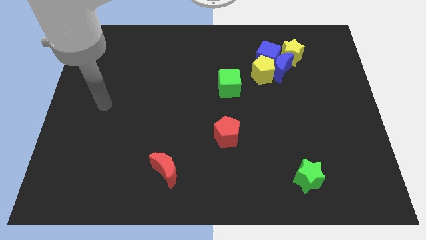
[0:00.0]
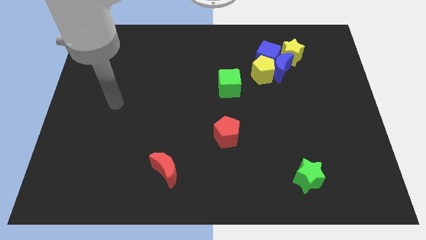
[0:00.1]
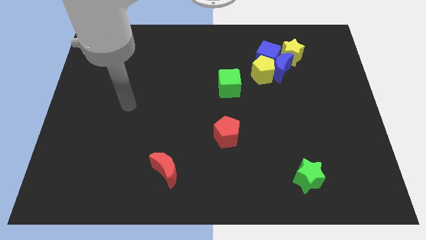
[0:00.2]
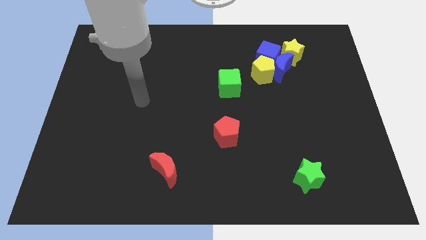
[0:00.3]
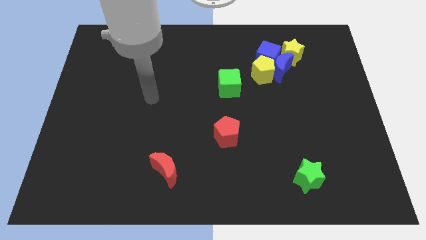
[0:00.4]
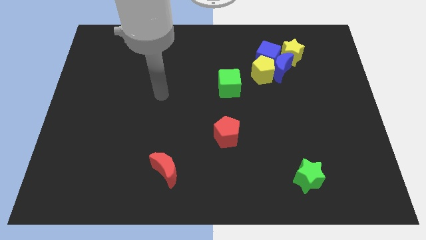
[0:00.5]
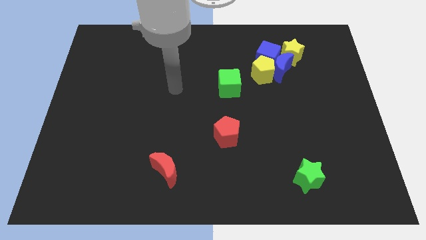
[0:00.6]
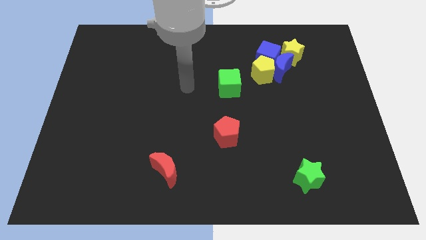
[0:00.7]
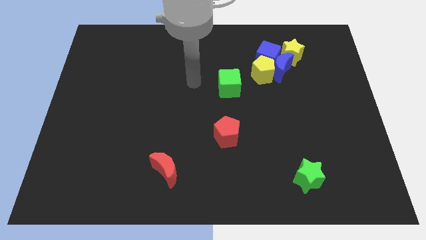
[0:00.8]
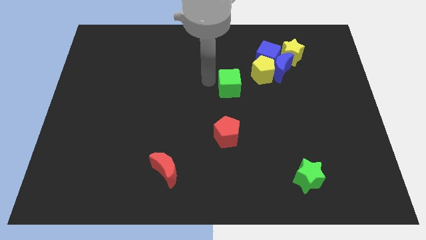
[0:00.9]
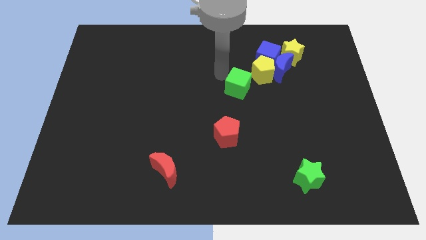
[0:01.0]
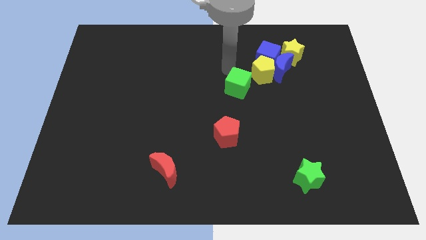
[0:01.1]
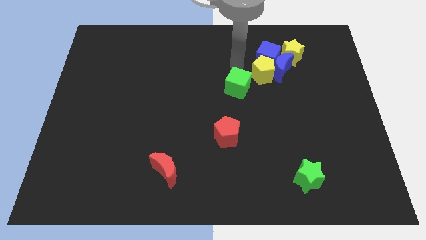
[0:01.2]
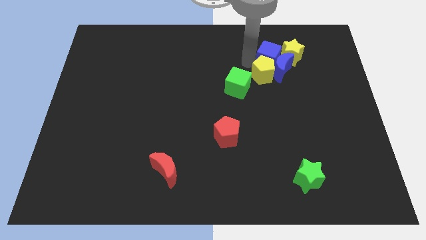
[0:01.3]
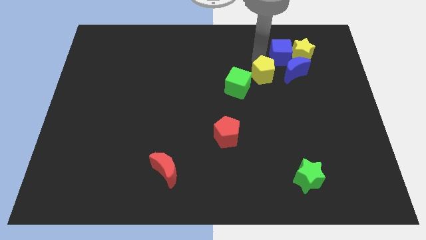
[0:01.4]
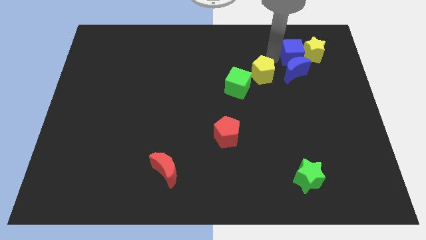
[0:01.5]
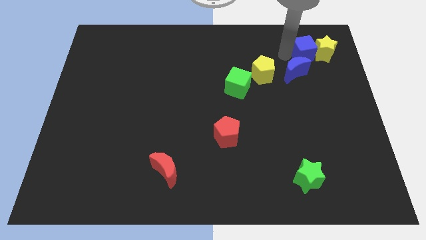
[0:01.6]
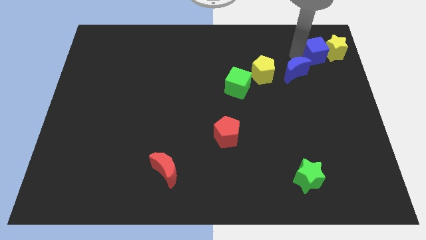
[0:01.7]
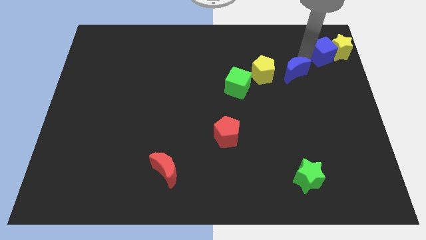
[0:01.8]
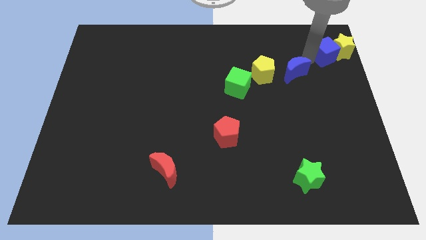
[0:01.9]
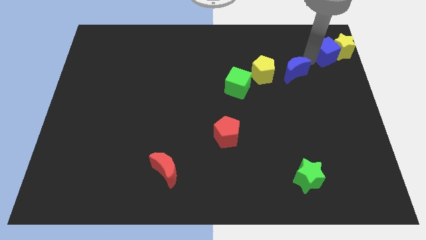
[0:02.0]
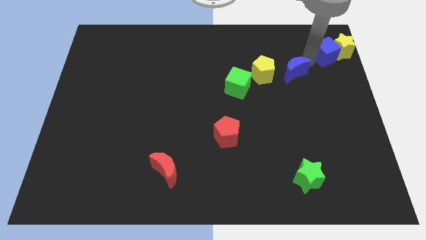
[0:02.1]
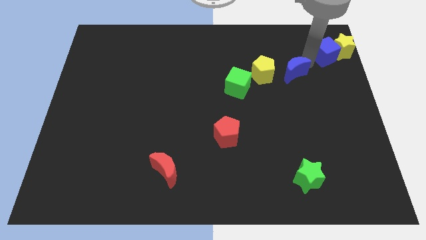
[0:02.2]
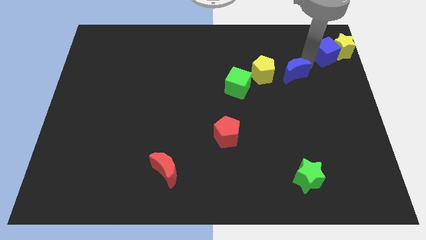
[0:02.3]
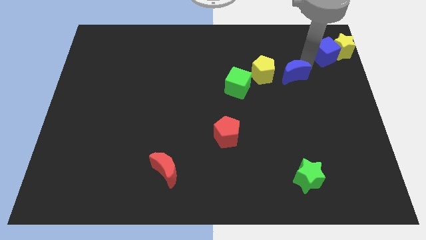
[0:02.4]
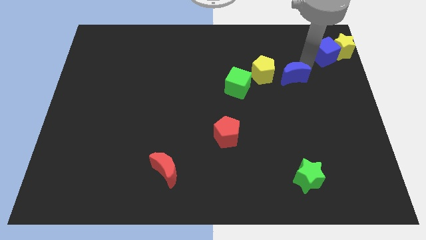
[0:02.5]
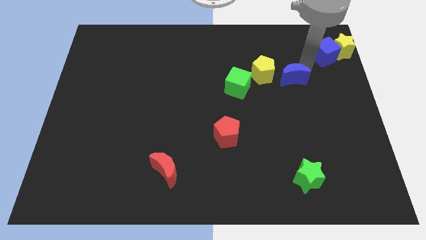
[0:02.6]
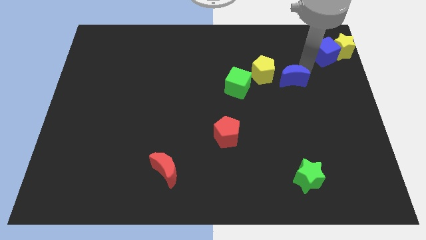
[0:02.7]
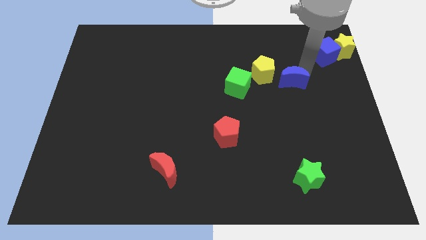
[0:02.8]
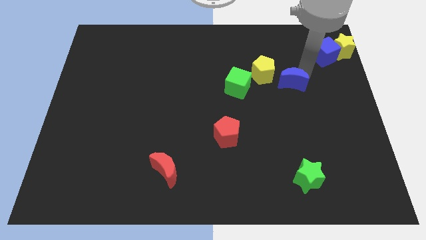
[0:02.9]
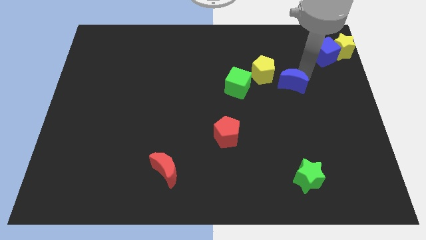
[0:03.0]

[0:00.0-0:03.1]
separate the blue moon from the blue cube, yellow pentagon, and yellow star

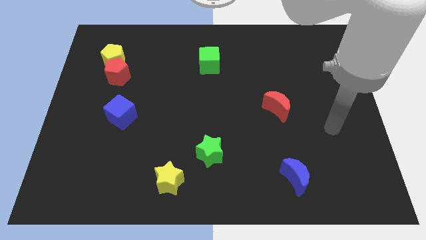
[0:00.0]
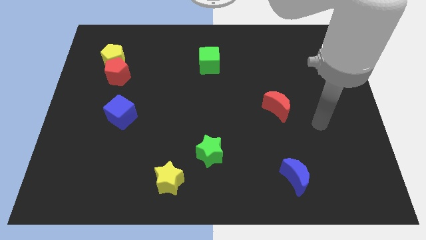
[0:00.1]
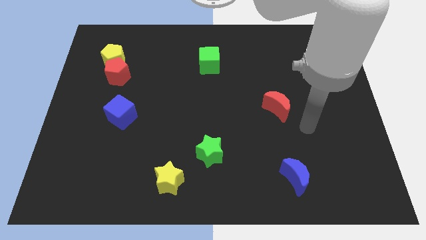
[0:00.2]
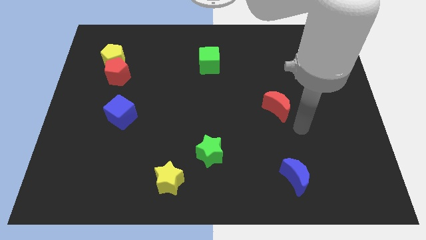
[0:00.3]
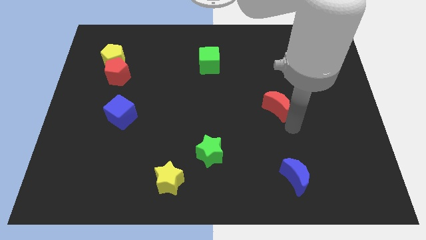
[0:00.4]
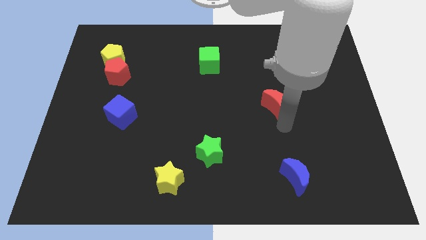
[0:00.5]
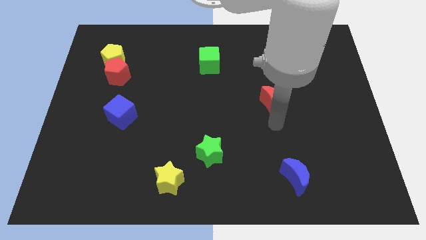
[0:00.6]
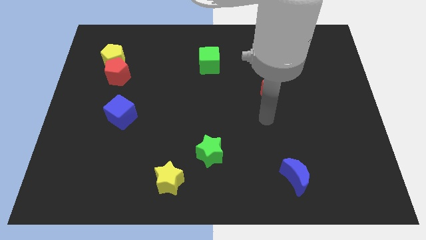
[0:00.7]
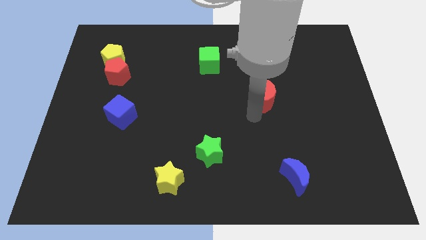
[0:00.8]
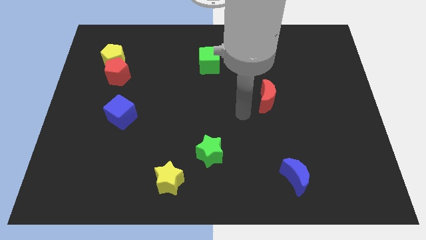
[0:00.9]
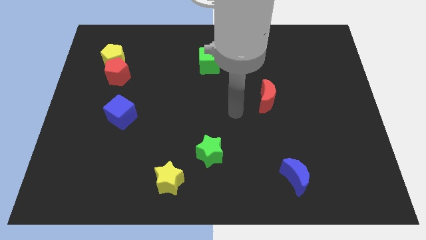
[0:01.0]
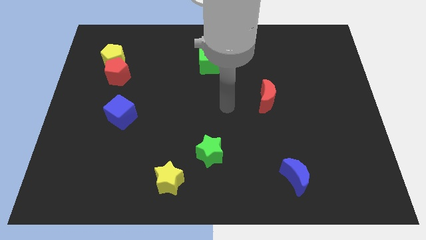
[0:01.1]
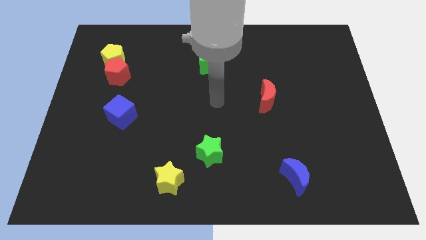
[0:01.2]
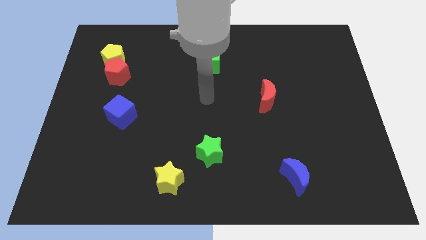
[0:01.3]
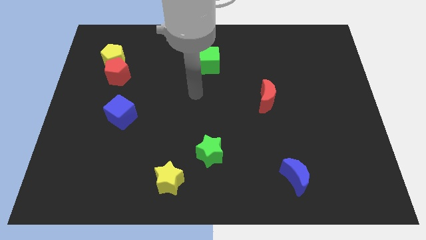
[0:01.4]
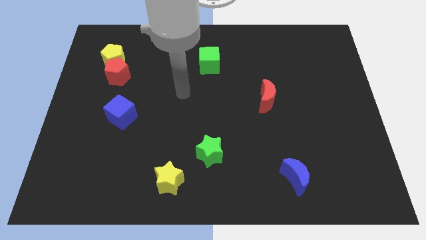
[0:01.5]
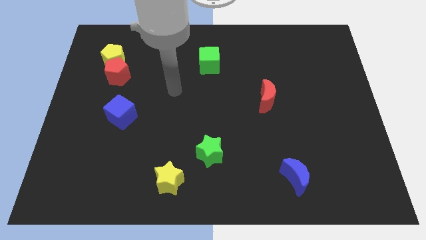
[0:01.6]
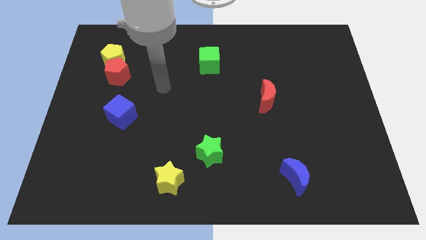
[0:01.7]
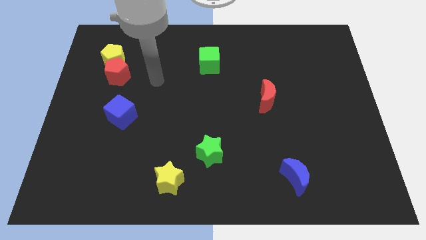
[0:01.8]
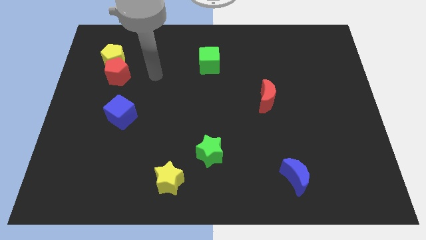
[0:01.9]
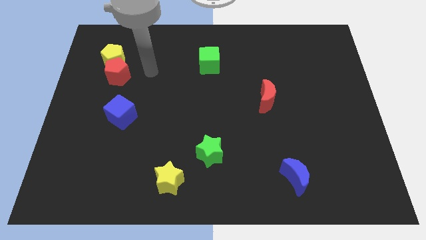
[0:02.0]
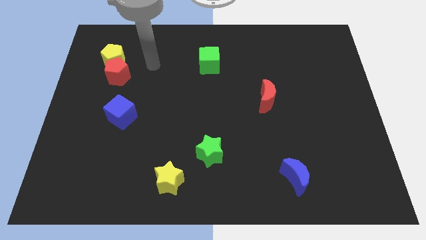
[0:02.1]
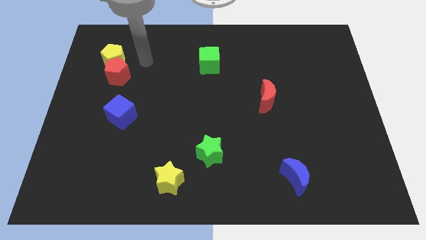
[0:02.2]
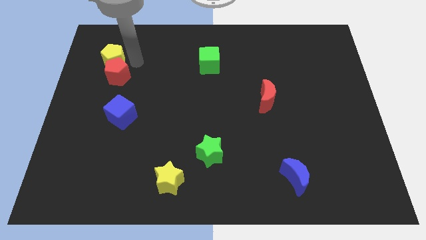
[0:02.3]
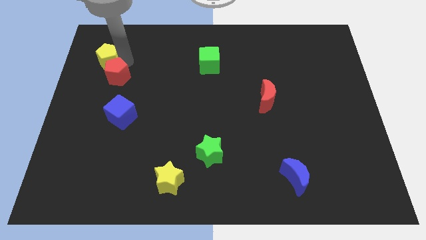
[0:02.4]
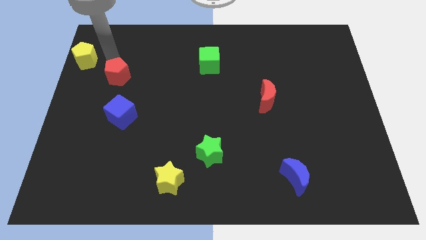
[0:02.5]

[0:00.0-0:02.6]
pull the red pentagon apart from the yellow pentagon

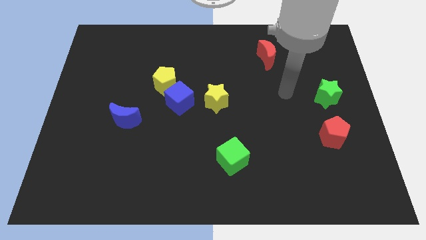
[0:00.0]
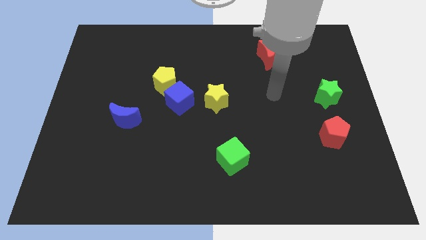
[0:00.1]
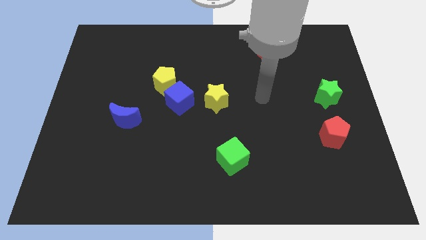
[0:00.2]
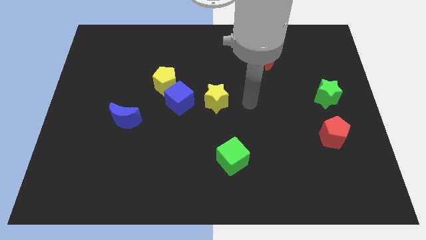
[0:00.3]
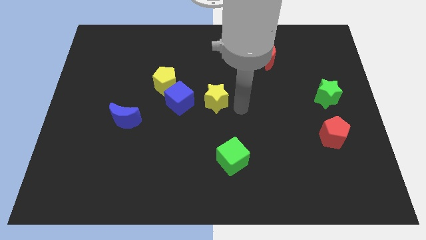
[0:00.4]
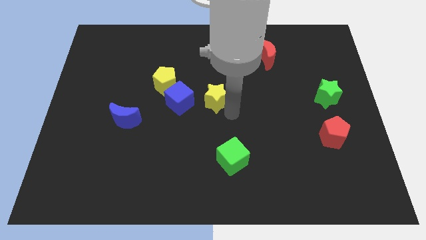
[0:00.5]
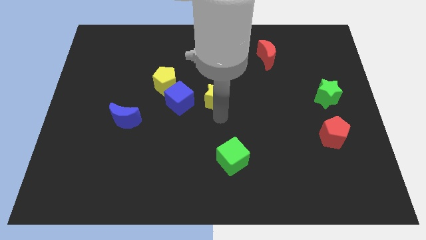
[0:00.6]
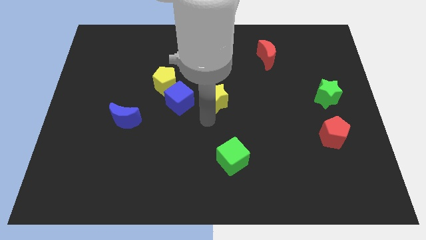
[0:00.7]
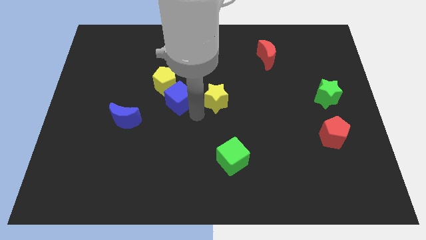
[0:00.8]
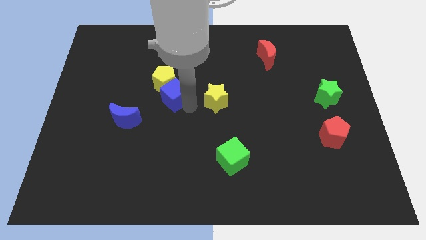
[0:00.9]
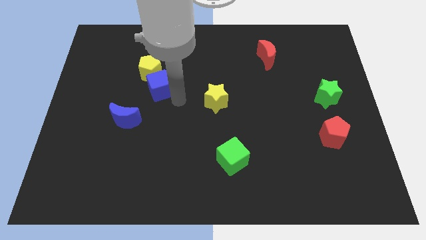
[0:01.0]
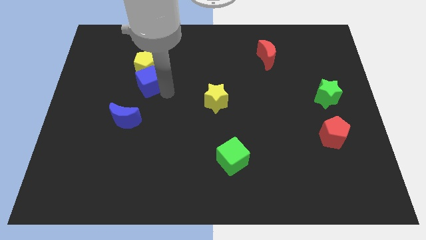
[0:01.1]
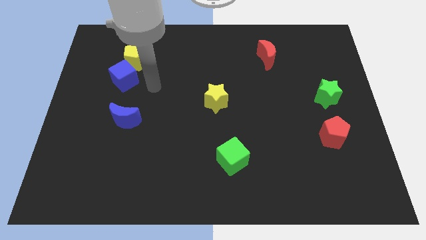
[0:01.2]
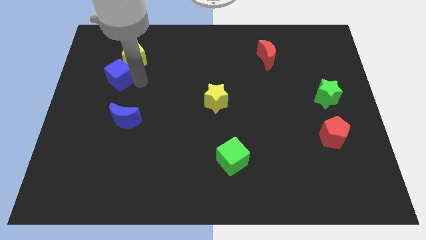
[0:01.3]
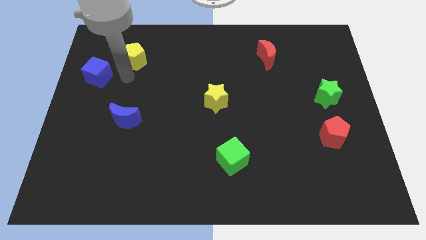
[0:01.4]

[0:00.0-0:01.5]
move the yellow pentagon away from the blue cube

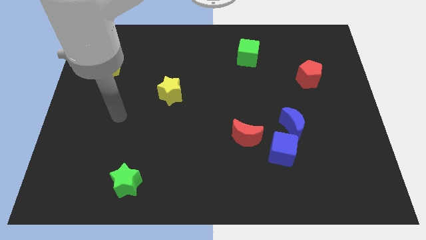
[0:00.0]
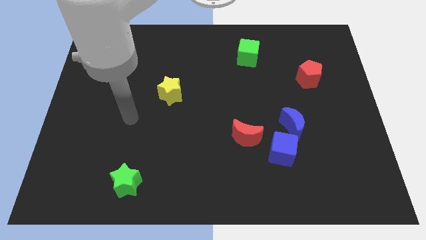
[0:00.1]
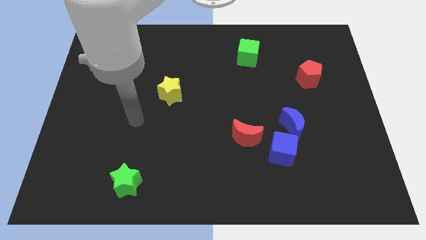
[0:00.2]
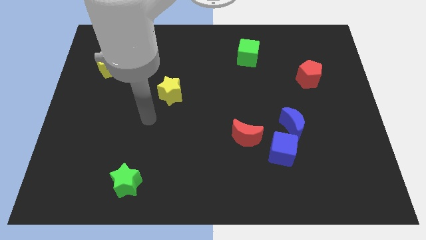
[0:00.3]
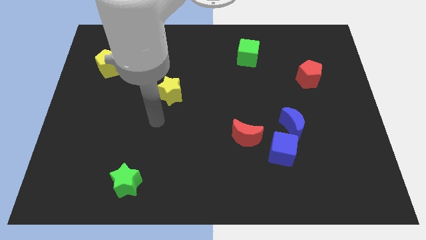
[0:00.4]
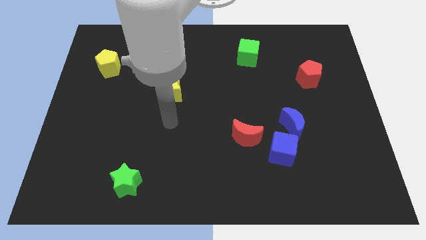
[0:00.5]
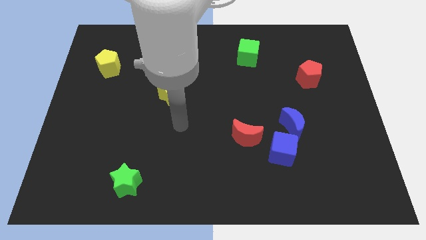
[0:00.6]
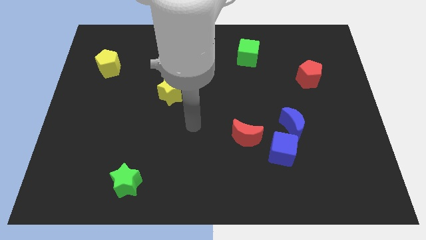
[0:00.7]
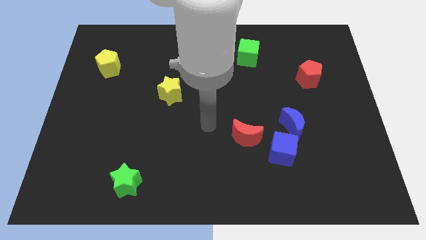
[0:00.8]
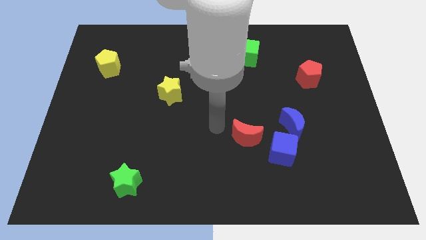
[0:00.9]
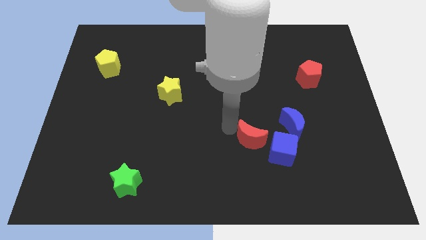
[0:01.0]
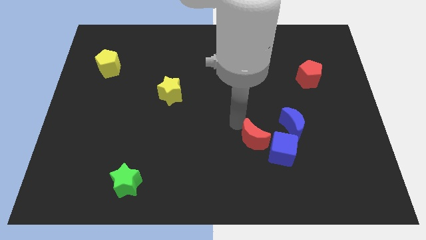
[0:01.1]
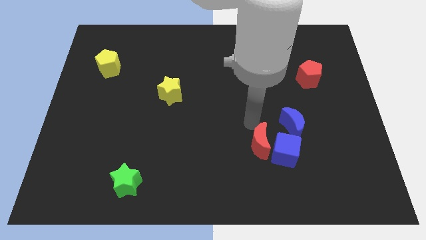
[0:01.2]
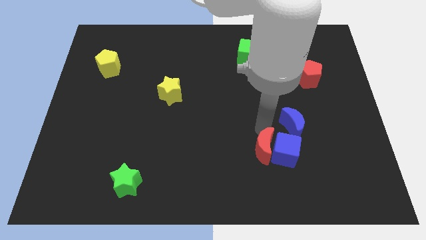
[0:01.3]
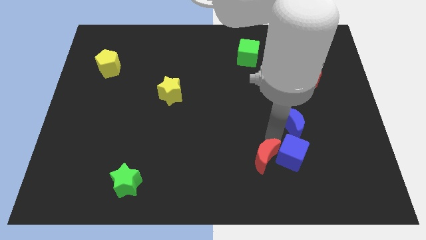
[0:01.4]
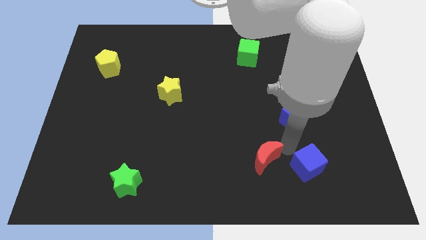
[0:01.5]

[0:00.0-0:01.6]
pull the blue moon apart from the blue cube

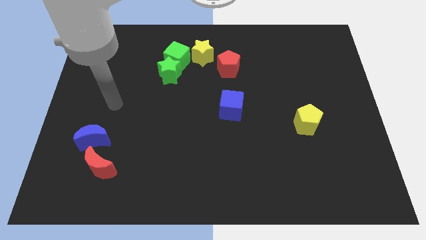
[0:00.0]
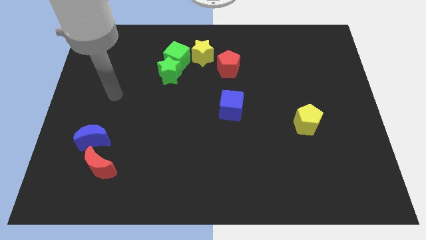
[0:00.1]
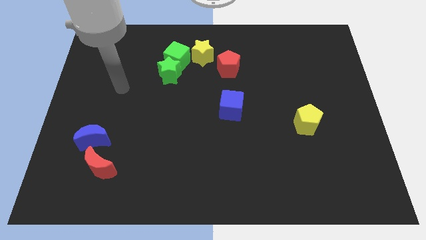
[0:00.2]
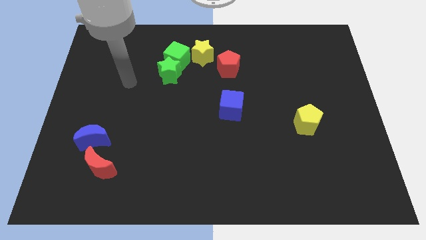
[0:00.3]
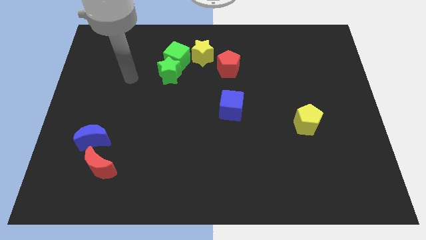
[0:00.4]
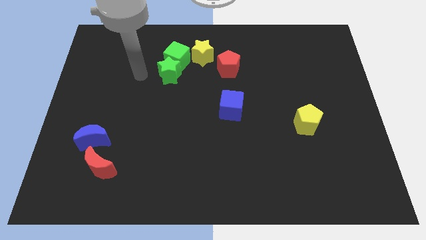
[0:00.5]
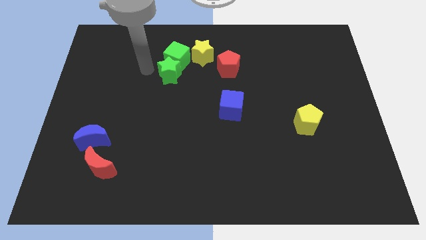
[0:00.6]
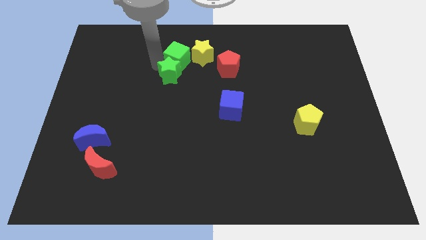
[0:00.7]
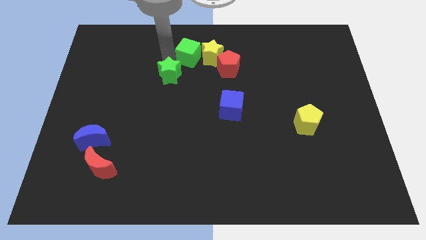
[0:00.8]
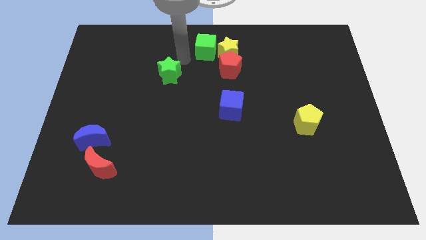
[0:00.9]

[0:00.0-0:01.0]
move the green star away from the green cube
